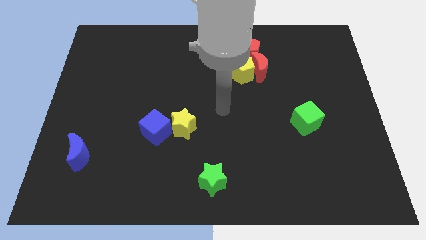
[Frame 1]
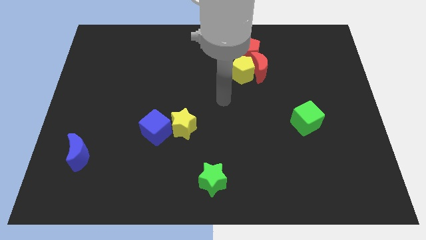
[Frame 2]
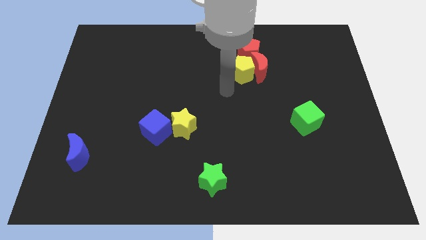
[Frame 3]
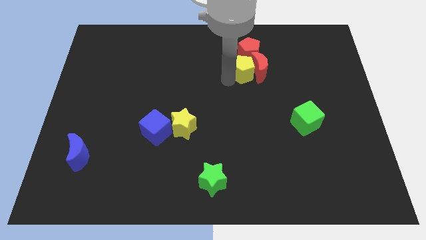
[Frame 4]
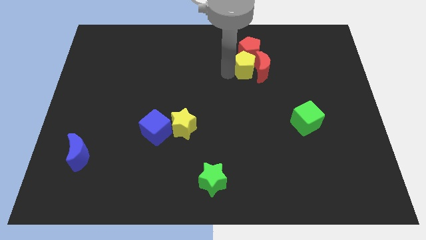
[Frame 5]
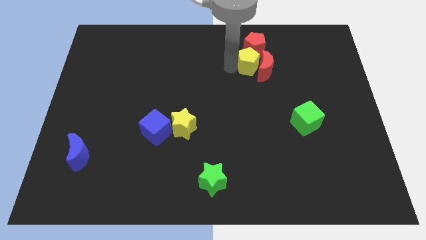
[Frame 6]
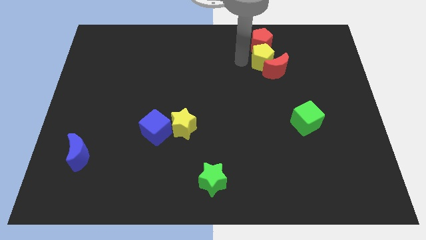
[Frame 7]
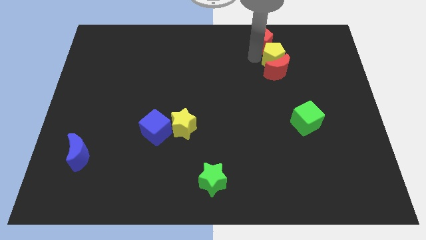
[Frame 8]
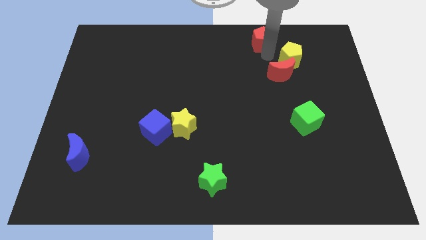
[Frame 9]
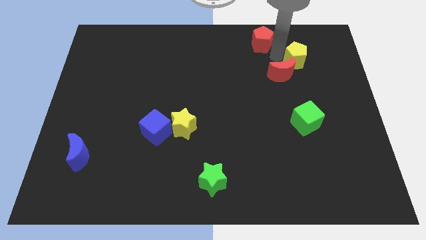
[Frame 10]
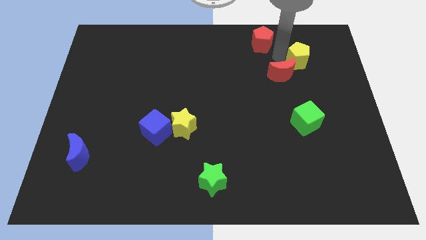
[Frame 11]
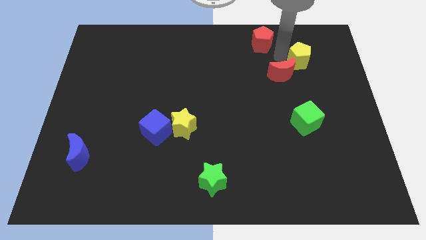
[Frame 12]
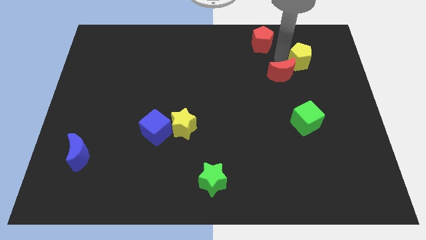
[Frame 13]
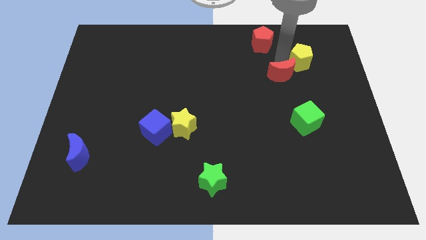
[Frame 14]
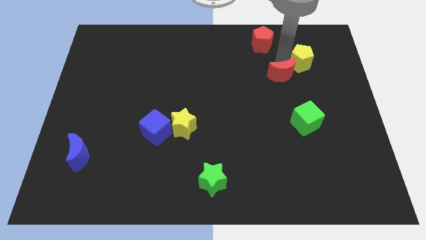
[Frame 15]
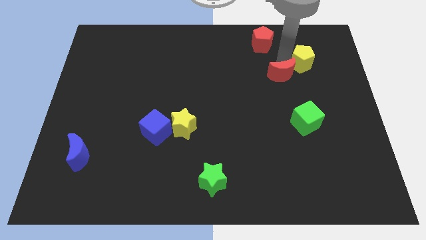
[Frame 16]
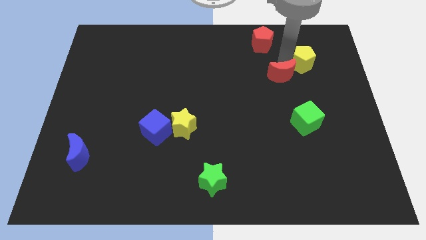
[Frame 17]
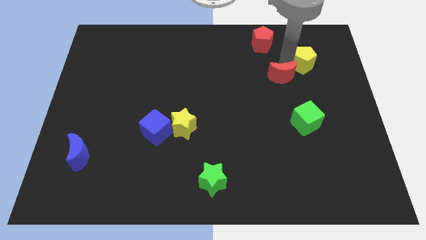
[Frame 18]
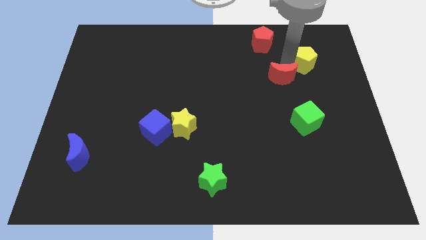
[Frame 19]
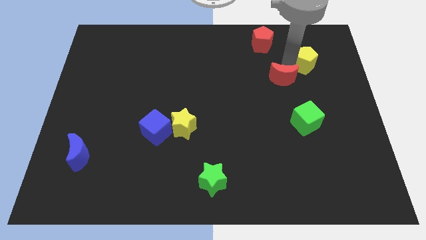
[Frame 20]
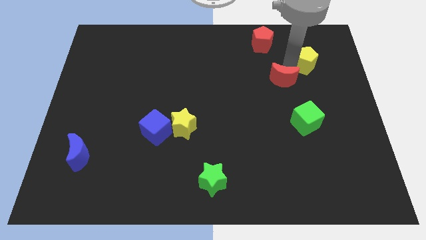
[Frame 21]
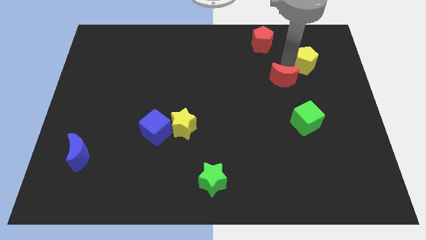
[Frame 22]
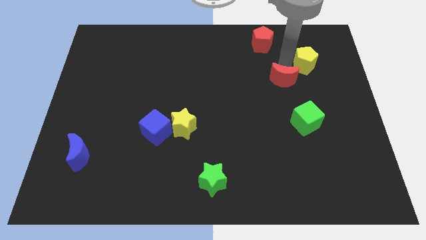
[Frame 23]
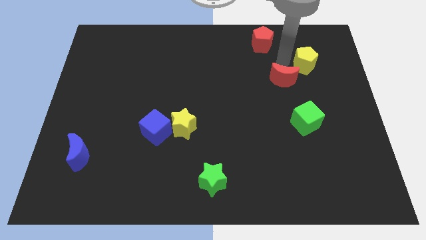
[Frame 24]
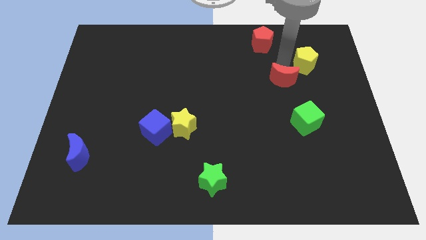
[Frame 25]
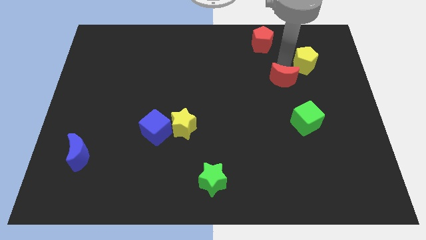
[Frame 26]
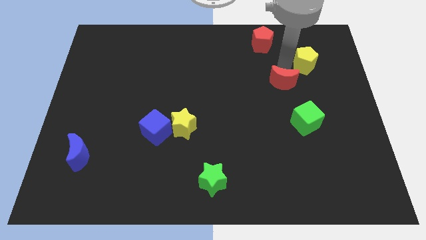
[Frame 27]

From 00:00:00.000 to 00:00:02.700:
pull the red moon apart from the yellow pentagon and red pentagon

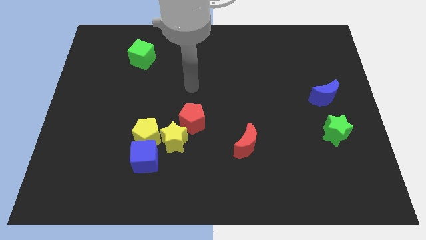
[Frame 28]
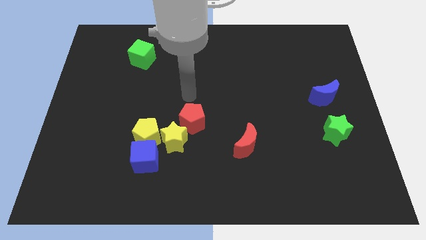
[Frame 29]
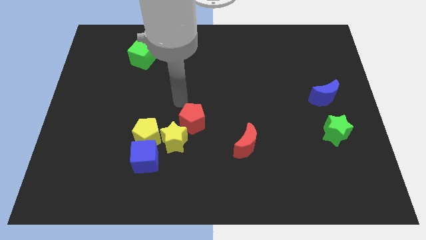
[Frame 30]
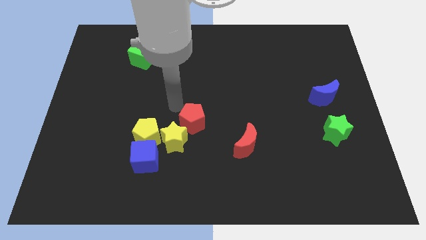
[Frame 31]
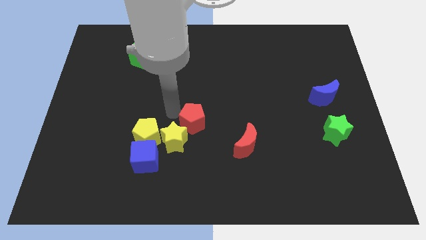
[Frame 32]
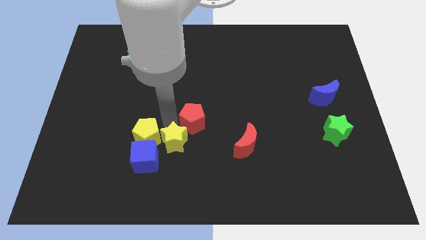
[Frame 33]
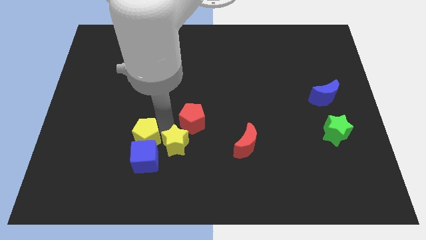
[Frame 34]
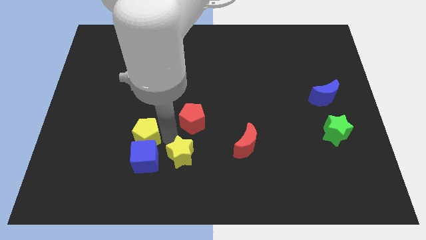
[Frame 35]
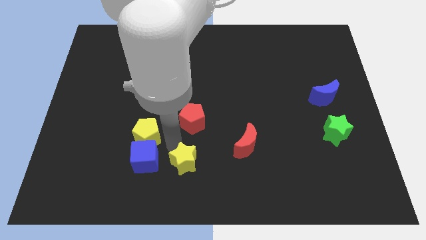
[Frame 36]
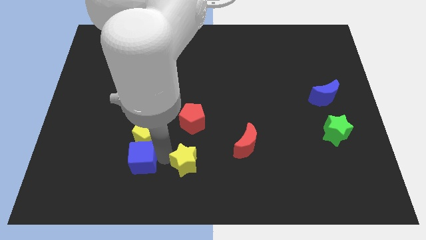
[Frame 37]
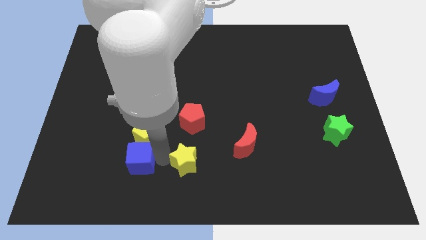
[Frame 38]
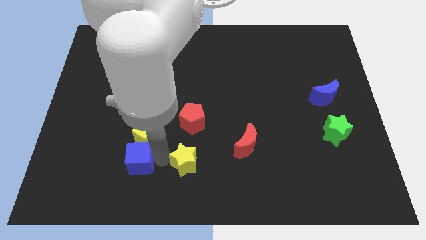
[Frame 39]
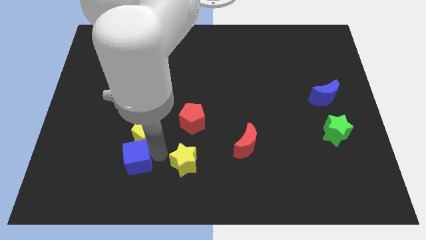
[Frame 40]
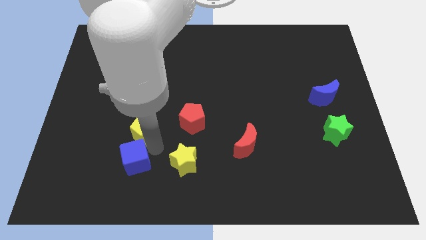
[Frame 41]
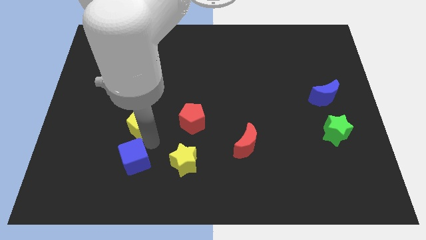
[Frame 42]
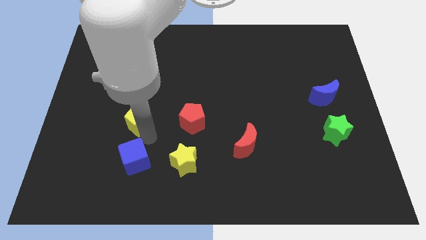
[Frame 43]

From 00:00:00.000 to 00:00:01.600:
separate the yellow pentagon from the blue cube and yellow star

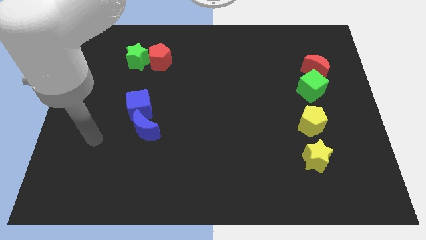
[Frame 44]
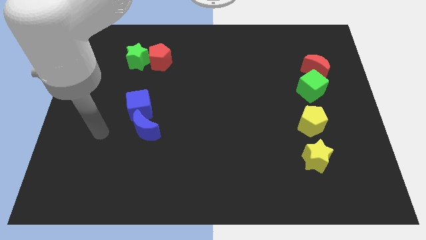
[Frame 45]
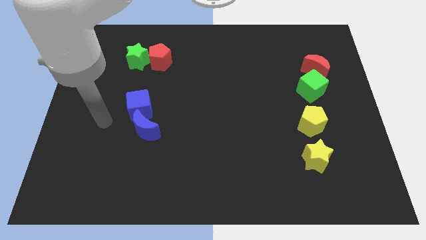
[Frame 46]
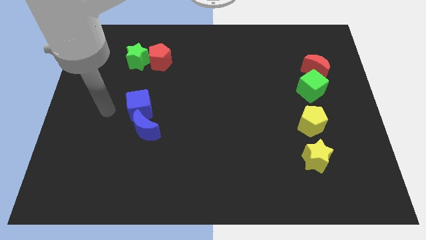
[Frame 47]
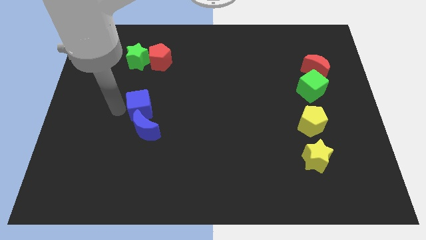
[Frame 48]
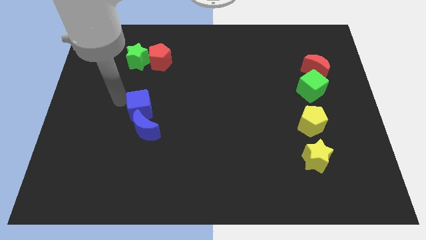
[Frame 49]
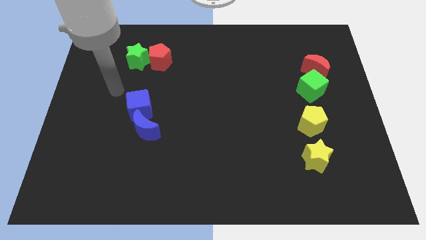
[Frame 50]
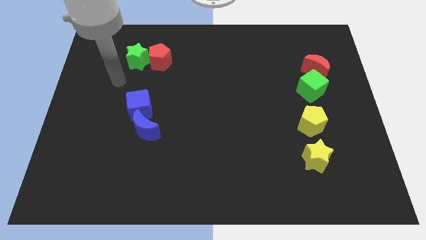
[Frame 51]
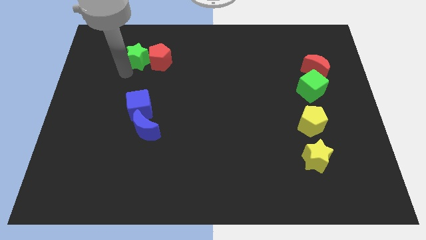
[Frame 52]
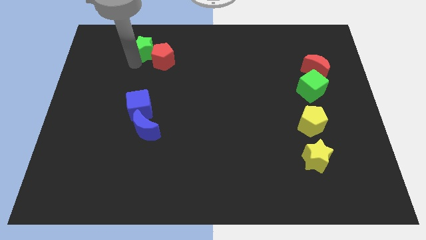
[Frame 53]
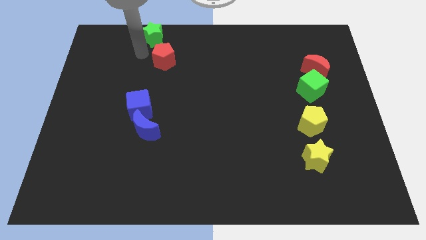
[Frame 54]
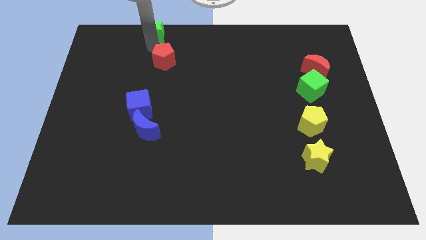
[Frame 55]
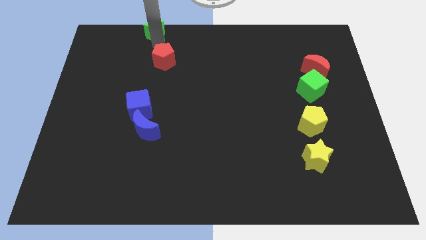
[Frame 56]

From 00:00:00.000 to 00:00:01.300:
move the red pentagon away from the green star

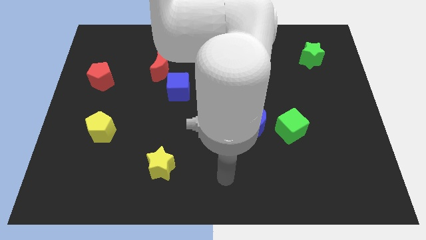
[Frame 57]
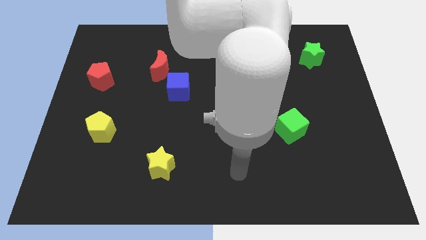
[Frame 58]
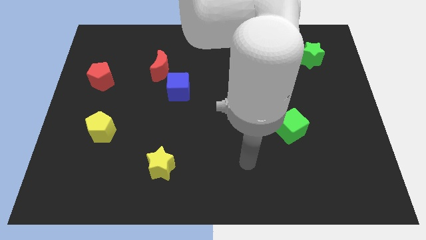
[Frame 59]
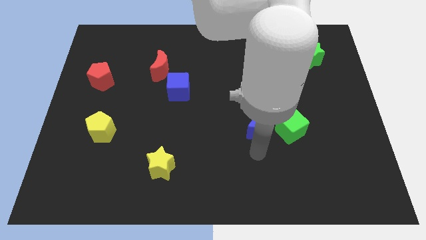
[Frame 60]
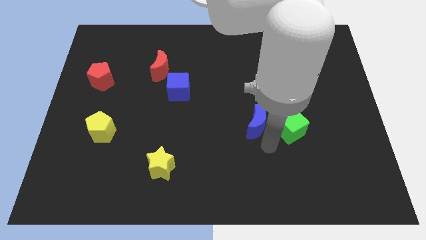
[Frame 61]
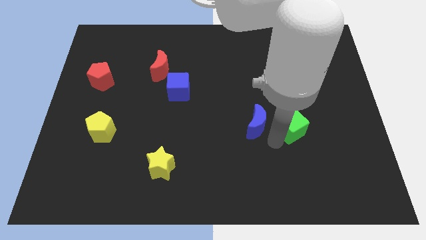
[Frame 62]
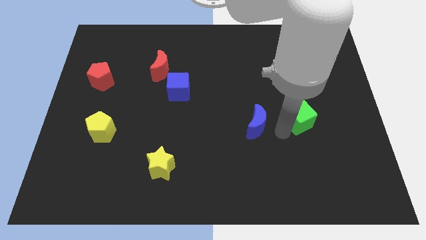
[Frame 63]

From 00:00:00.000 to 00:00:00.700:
pull the blue moon apart from the green cube

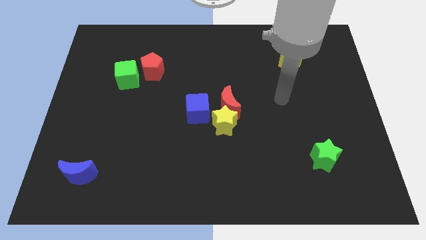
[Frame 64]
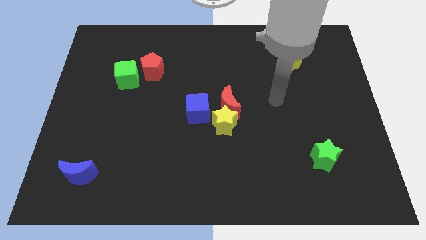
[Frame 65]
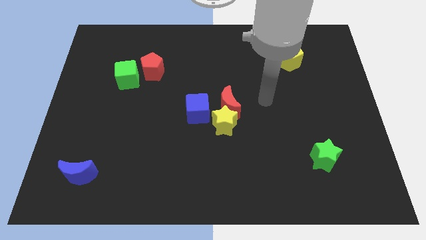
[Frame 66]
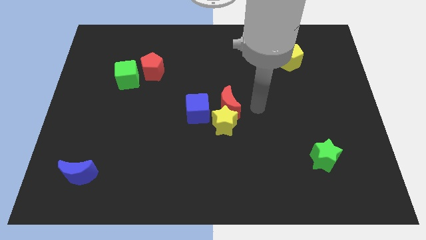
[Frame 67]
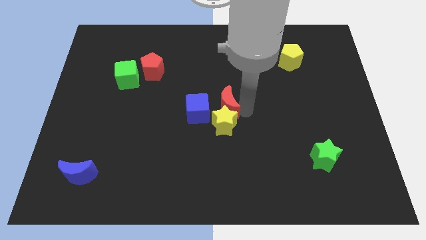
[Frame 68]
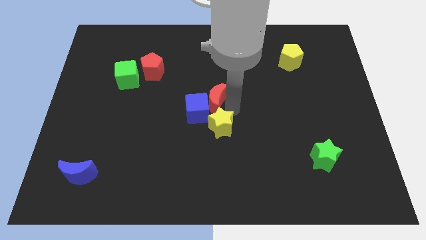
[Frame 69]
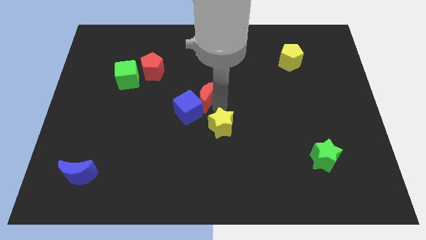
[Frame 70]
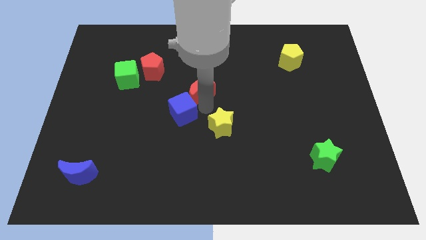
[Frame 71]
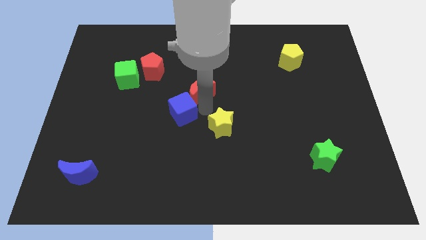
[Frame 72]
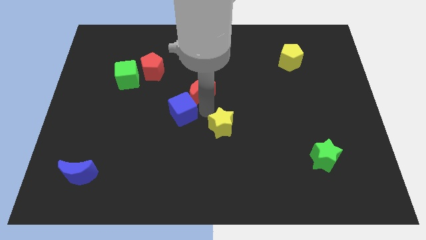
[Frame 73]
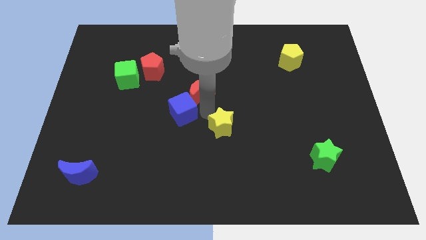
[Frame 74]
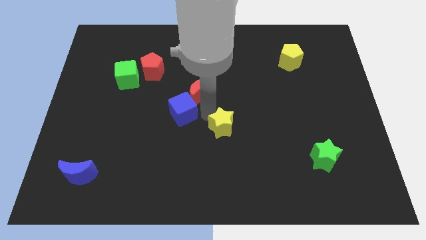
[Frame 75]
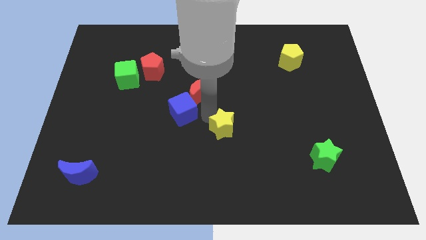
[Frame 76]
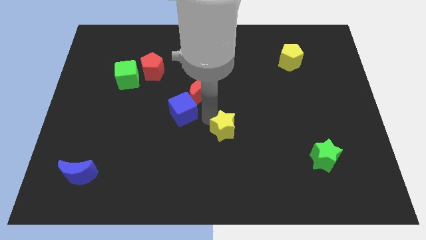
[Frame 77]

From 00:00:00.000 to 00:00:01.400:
separate the yellow star from the red moon and blue cube

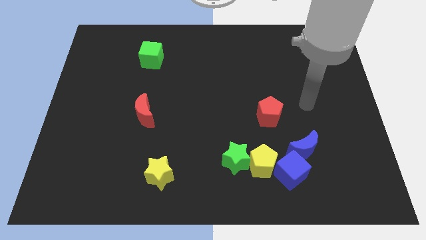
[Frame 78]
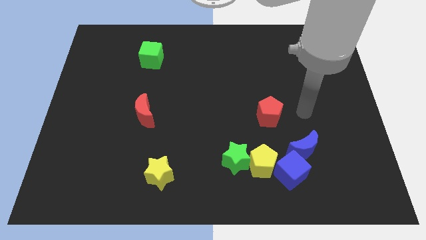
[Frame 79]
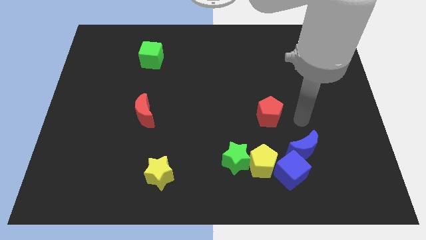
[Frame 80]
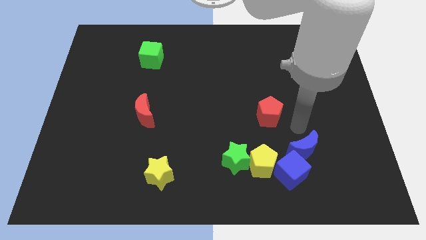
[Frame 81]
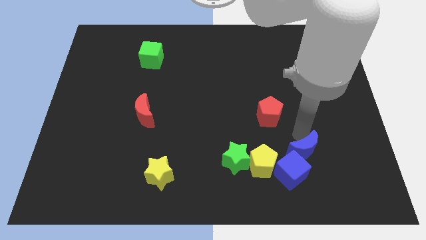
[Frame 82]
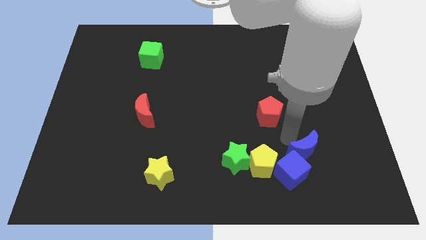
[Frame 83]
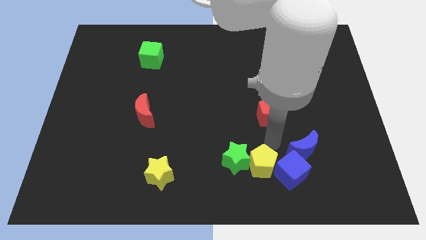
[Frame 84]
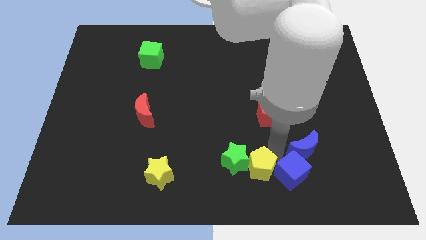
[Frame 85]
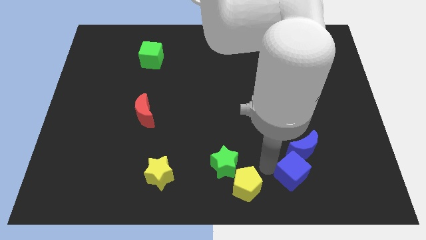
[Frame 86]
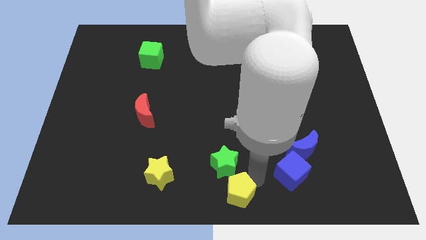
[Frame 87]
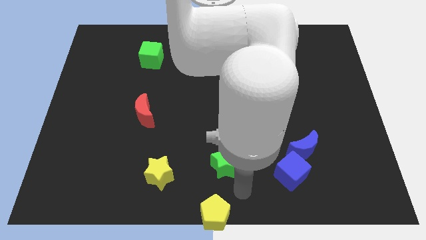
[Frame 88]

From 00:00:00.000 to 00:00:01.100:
move the green star away from the yellow pentagon

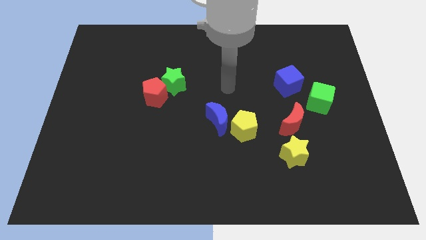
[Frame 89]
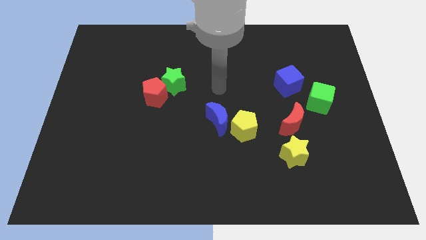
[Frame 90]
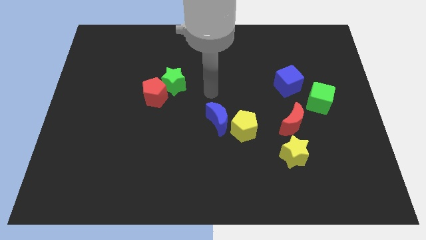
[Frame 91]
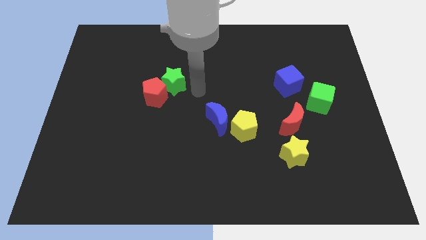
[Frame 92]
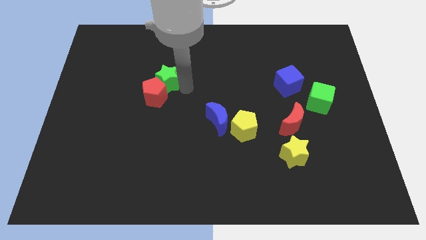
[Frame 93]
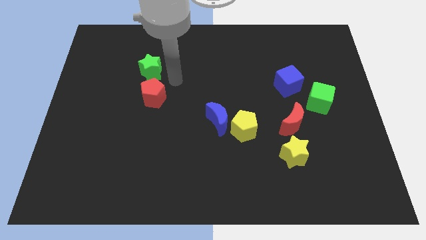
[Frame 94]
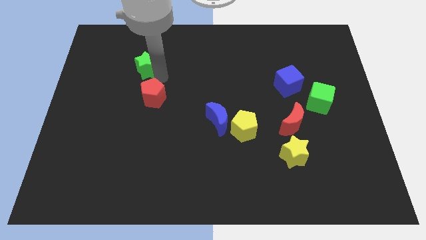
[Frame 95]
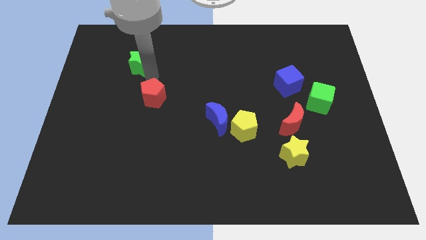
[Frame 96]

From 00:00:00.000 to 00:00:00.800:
separate the red pentagon from the green star
